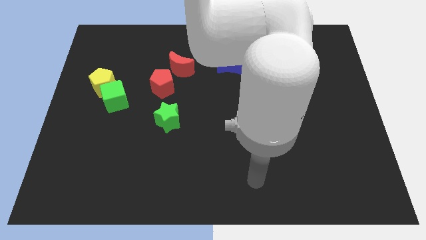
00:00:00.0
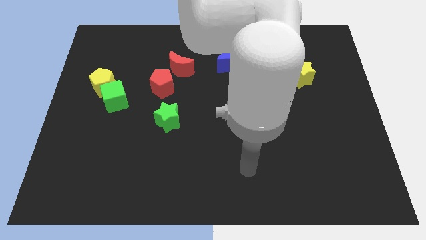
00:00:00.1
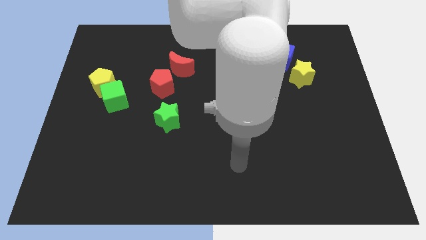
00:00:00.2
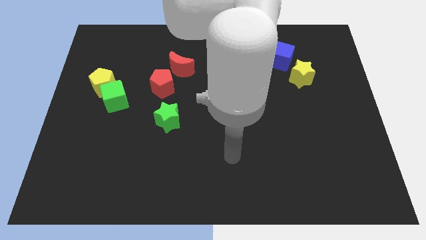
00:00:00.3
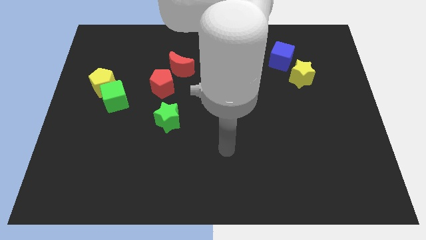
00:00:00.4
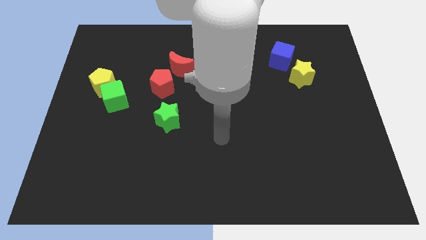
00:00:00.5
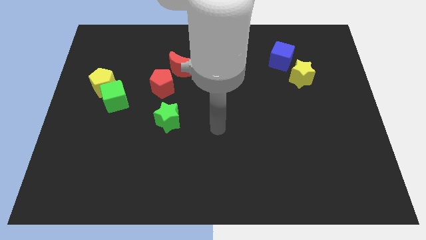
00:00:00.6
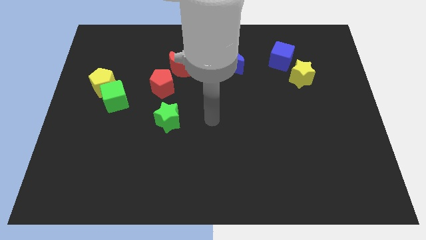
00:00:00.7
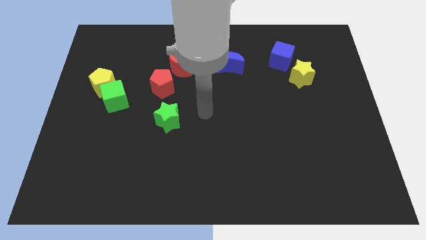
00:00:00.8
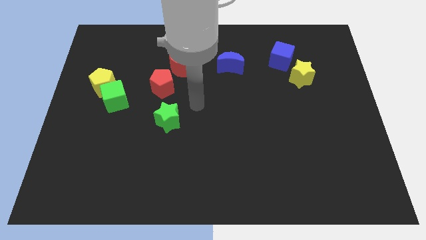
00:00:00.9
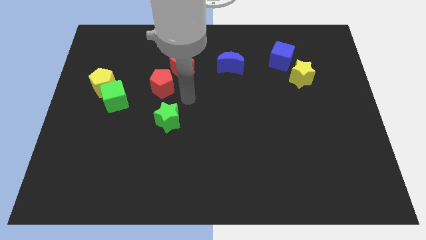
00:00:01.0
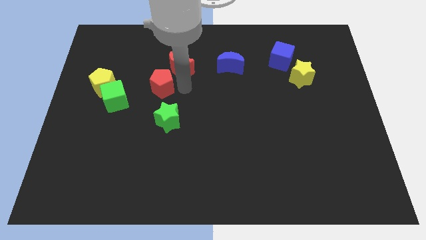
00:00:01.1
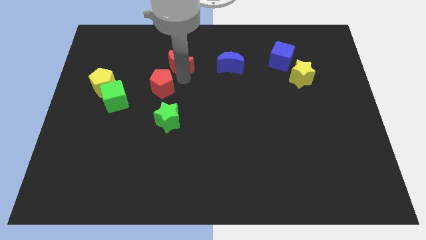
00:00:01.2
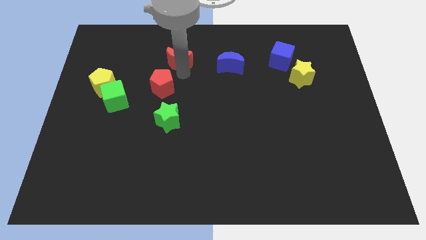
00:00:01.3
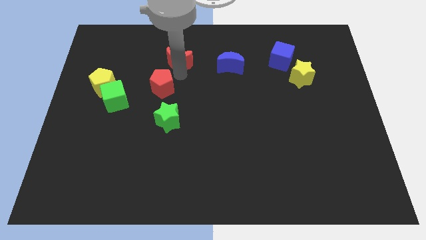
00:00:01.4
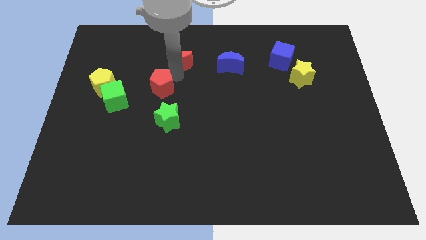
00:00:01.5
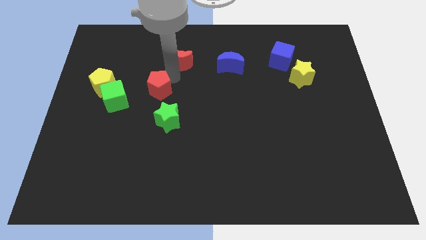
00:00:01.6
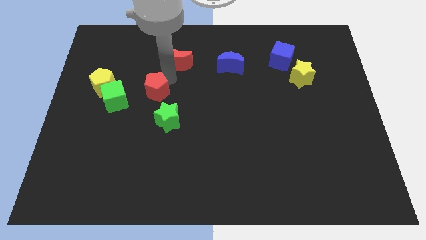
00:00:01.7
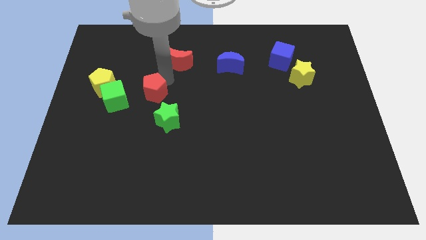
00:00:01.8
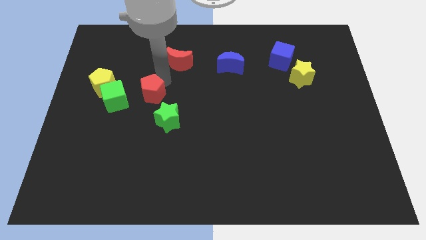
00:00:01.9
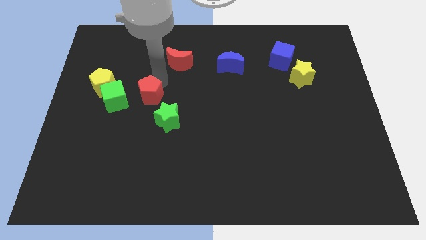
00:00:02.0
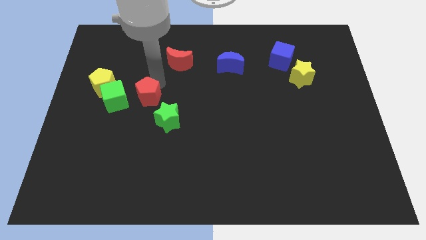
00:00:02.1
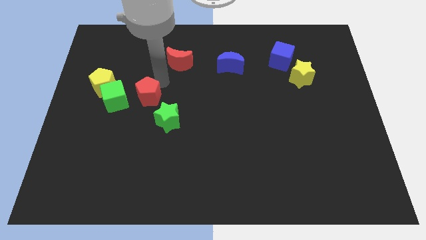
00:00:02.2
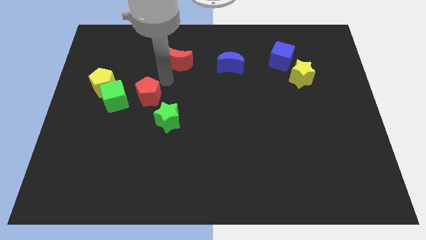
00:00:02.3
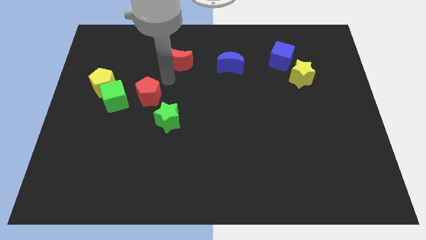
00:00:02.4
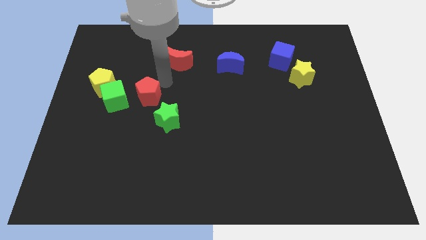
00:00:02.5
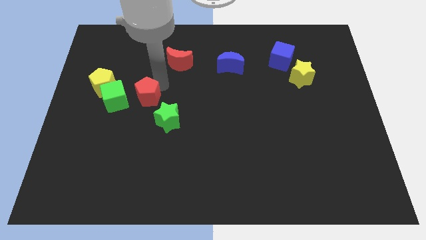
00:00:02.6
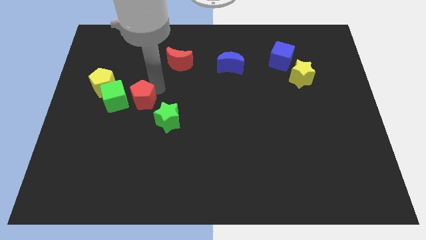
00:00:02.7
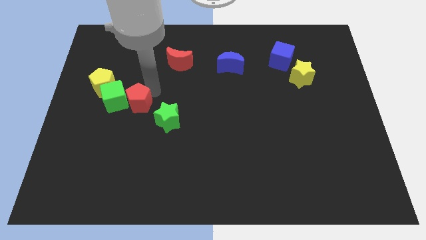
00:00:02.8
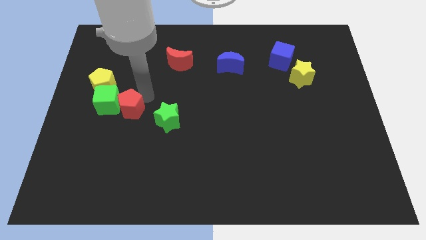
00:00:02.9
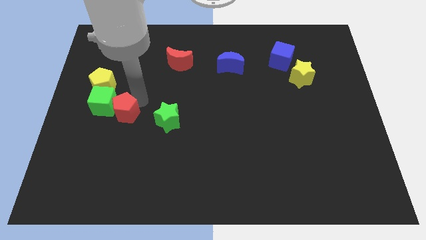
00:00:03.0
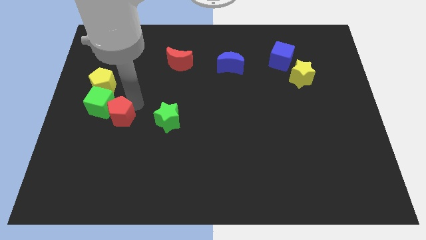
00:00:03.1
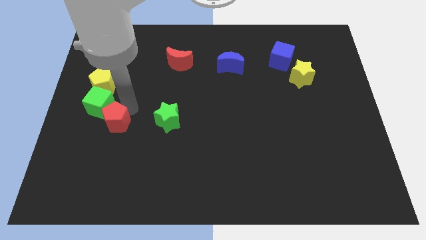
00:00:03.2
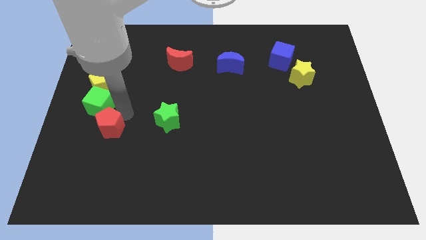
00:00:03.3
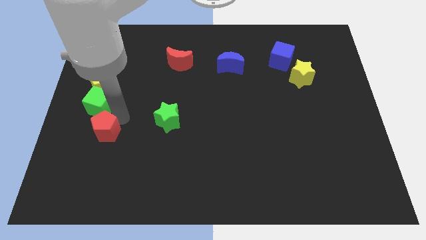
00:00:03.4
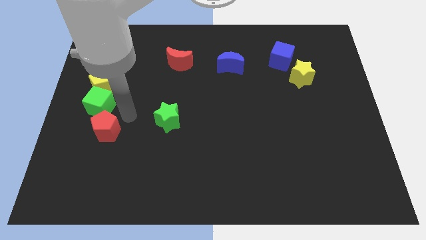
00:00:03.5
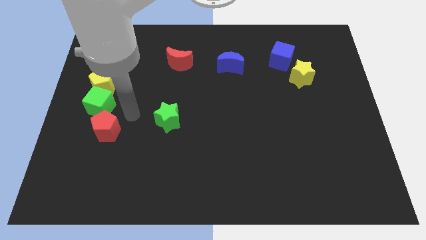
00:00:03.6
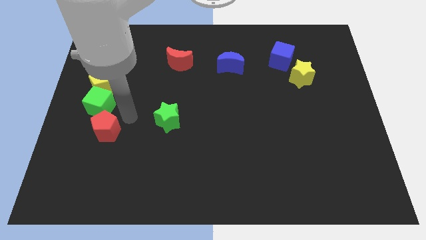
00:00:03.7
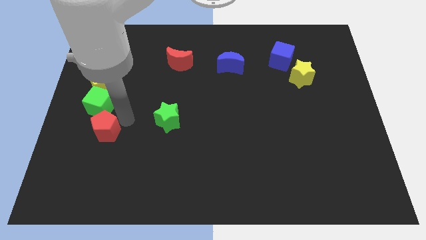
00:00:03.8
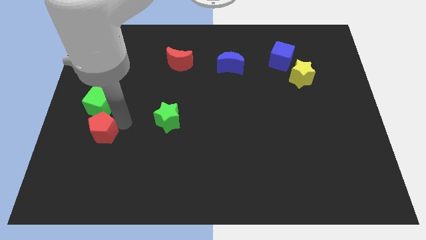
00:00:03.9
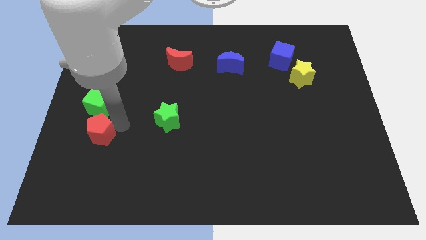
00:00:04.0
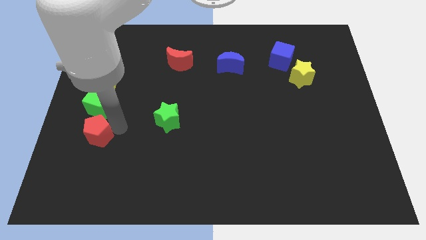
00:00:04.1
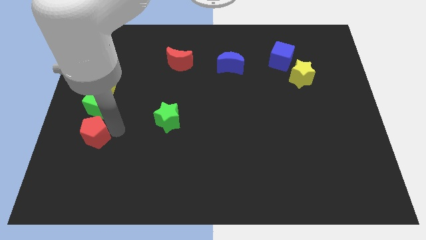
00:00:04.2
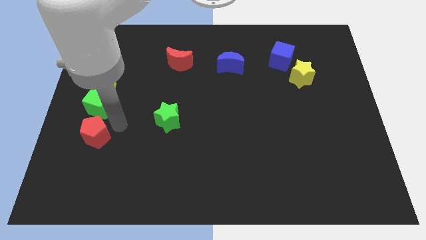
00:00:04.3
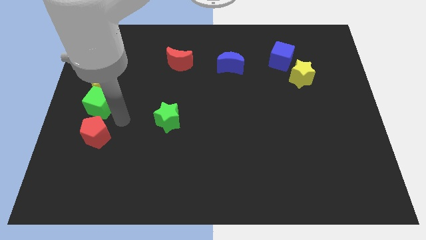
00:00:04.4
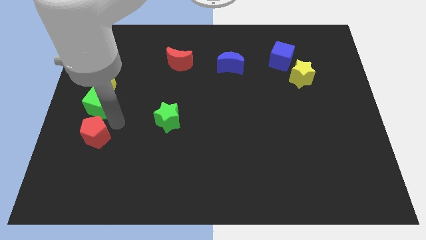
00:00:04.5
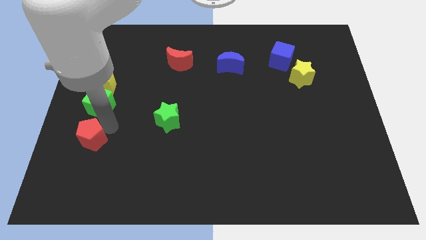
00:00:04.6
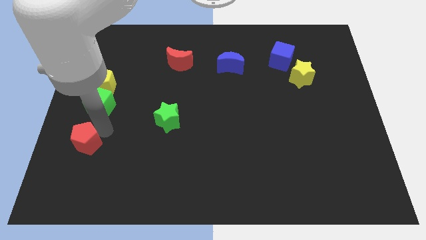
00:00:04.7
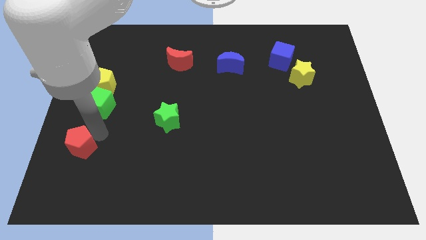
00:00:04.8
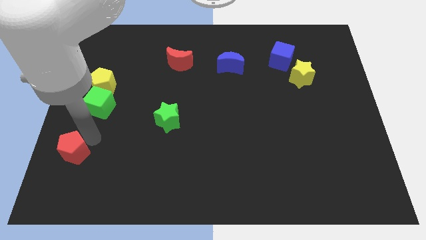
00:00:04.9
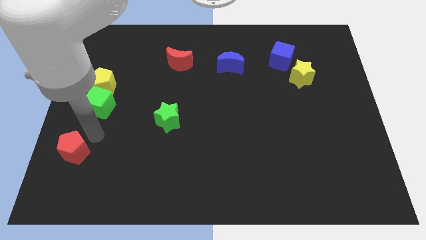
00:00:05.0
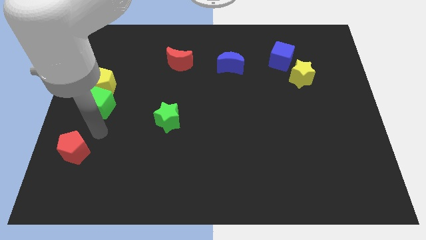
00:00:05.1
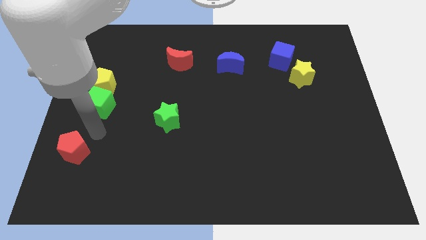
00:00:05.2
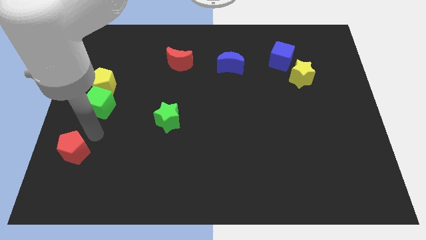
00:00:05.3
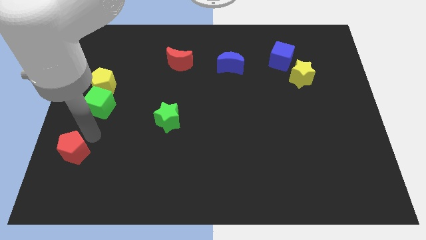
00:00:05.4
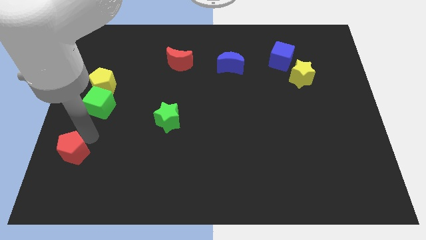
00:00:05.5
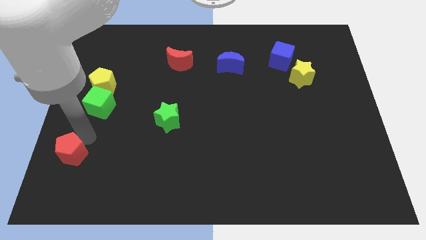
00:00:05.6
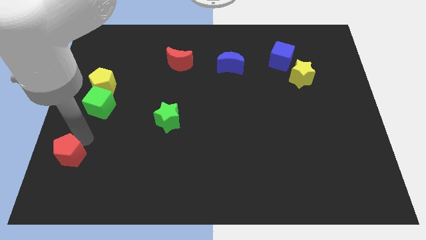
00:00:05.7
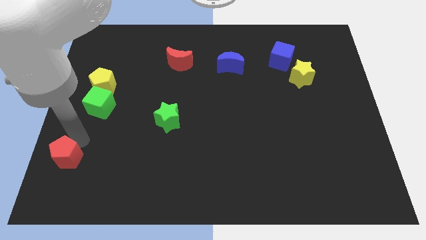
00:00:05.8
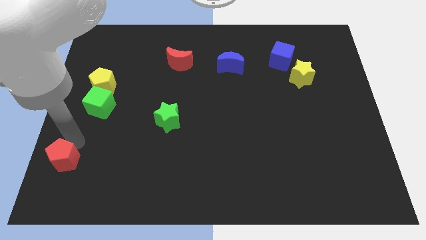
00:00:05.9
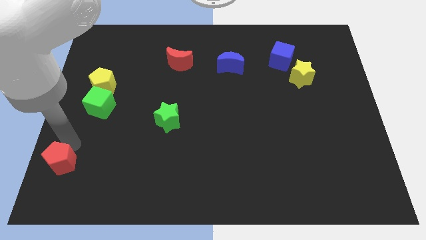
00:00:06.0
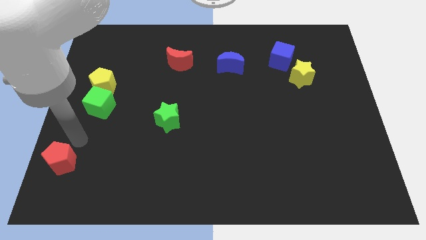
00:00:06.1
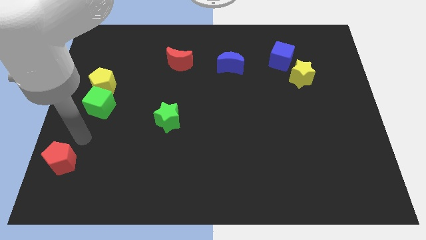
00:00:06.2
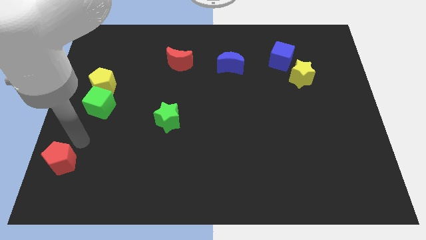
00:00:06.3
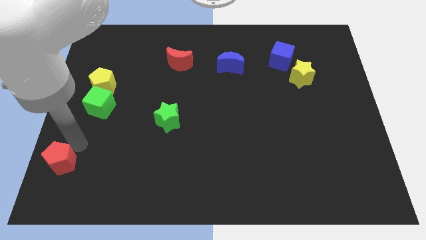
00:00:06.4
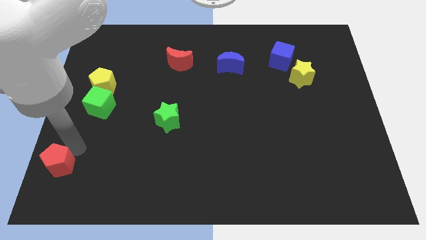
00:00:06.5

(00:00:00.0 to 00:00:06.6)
put the red pentagon to the bottom left of the board
